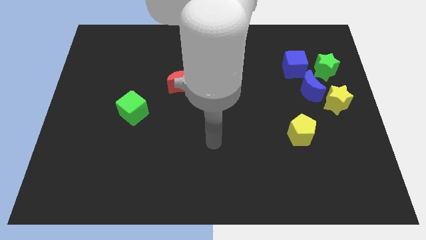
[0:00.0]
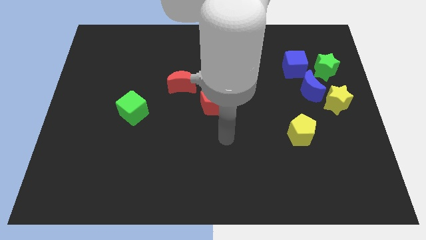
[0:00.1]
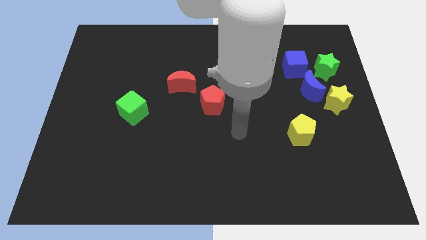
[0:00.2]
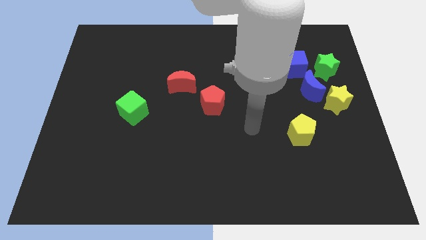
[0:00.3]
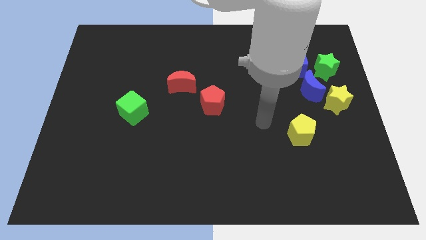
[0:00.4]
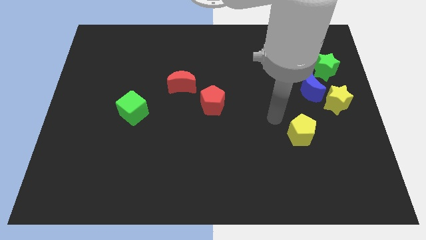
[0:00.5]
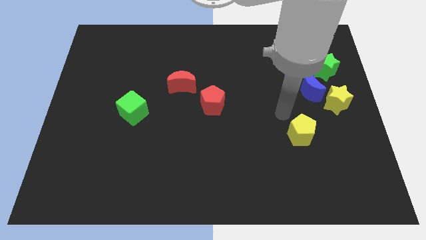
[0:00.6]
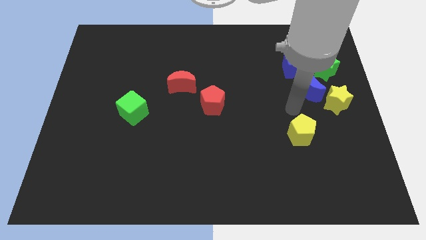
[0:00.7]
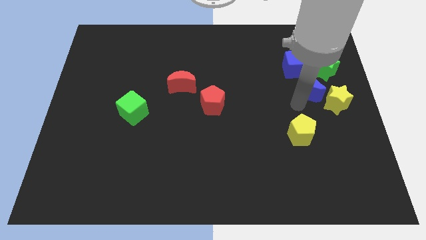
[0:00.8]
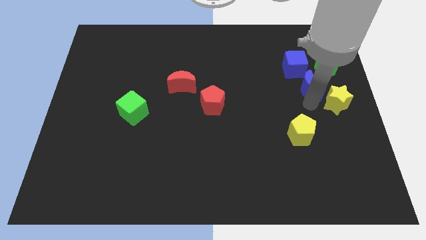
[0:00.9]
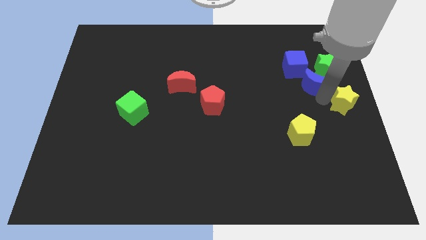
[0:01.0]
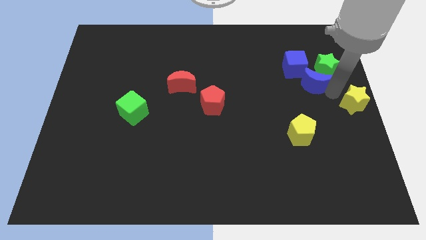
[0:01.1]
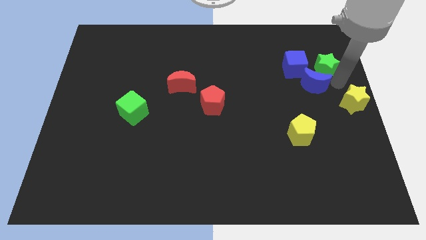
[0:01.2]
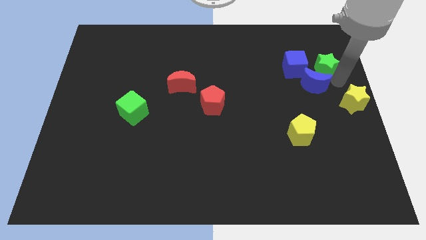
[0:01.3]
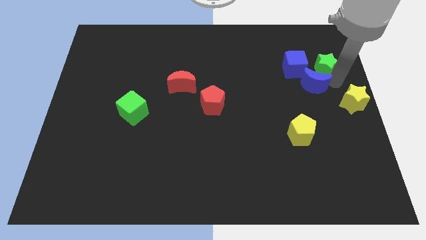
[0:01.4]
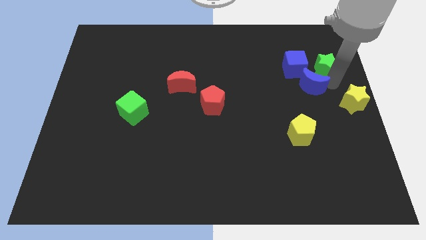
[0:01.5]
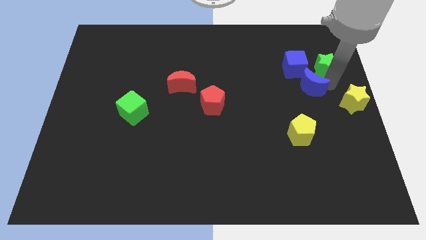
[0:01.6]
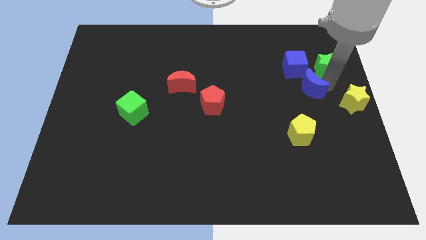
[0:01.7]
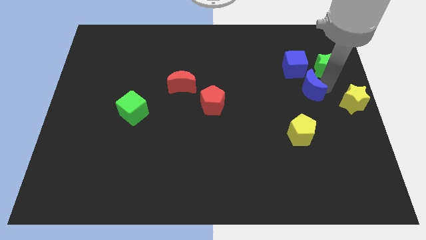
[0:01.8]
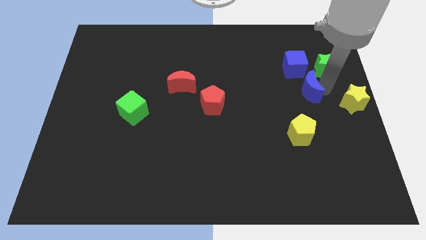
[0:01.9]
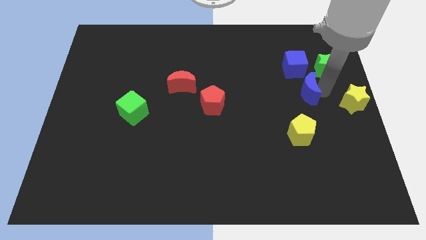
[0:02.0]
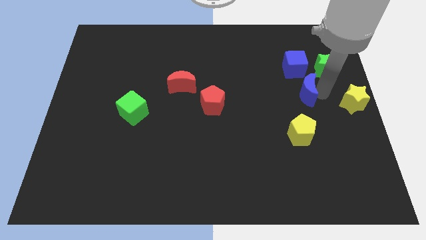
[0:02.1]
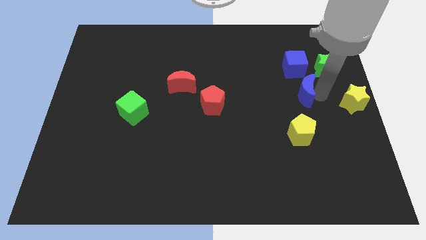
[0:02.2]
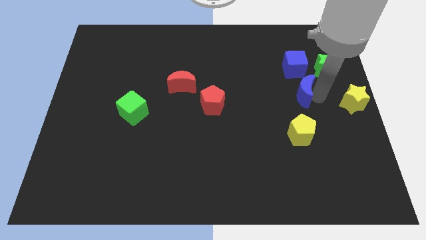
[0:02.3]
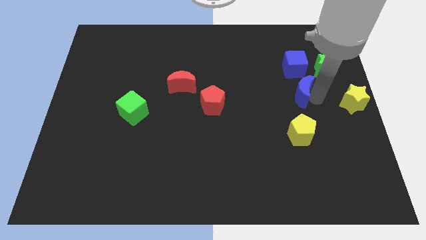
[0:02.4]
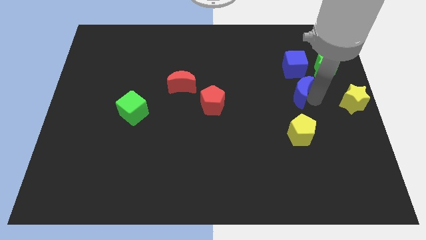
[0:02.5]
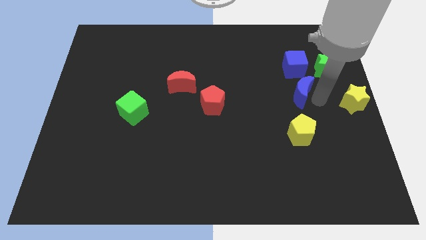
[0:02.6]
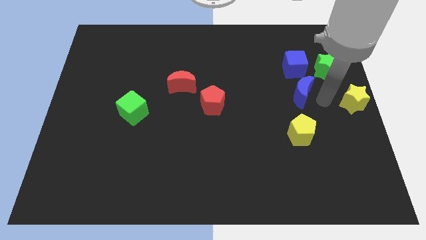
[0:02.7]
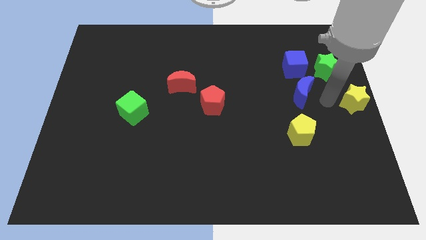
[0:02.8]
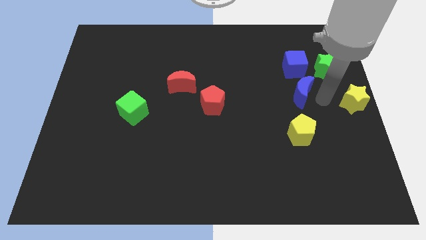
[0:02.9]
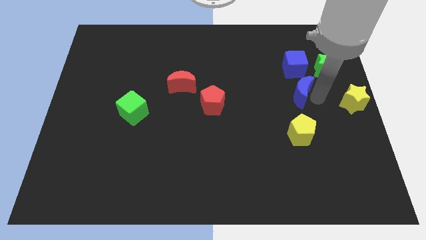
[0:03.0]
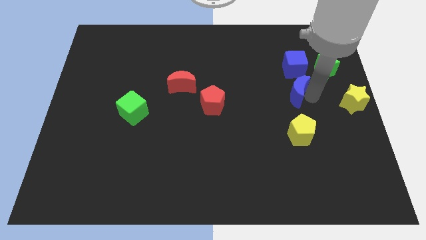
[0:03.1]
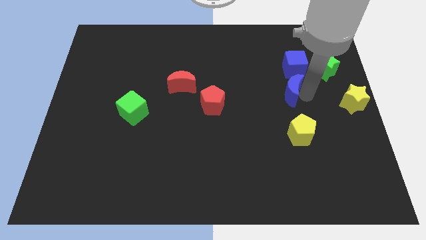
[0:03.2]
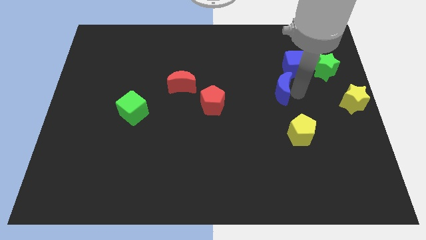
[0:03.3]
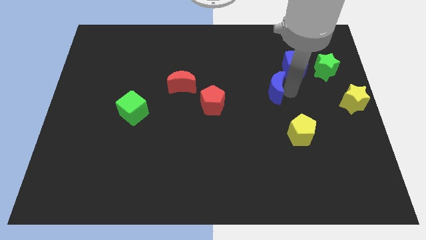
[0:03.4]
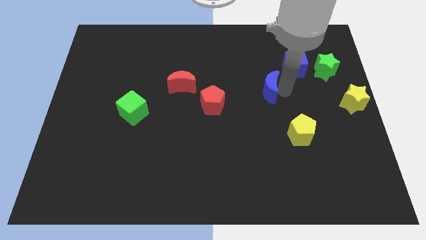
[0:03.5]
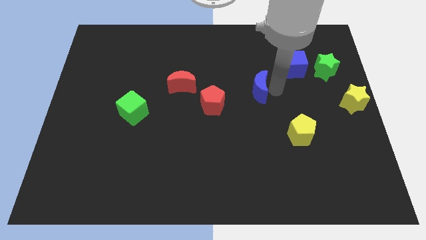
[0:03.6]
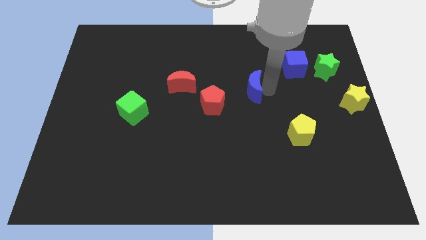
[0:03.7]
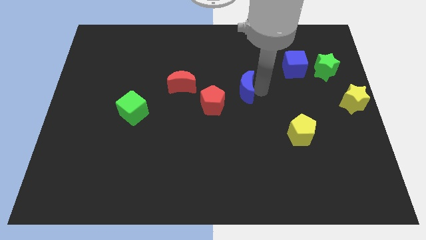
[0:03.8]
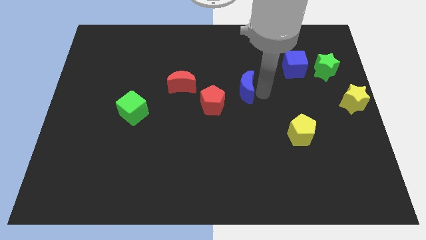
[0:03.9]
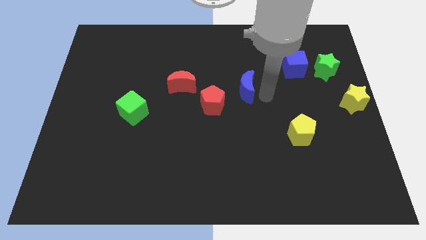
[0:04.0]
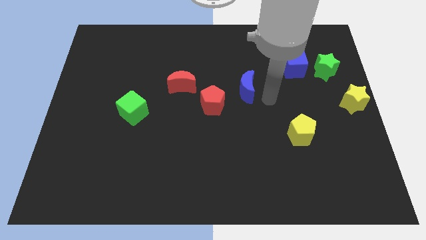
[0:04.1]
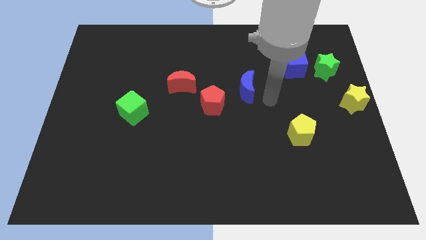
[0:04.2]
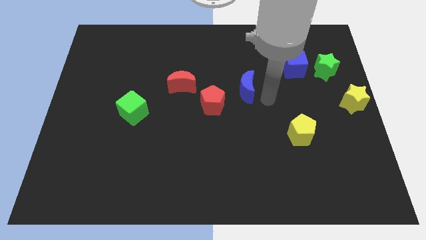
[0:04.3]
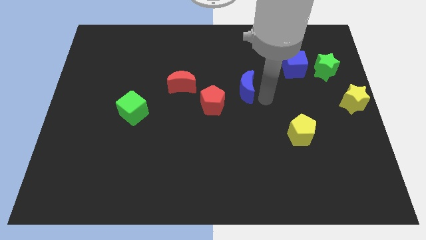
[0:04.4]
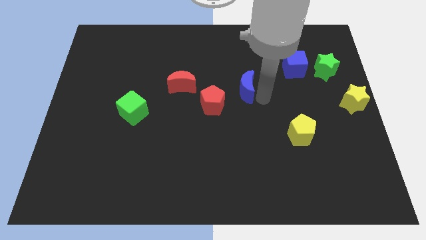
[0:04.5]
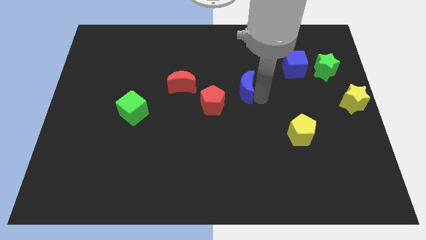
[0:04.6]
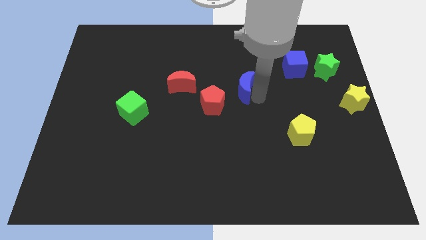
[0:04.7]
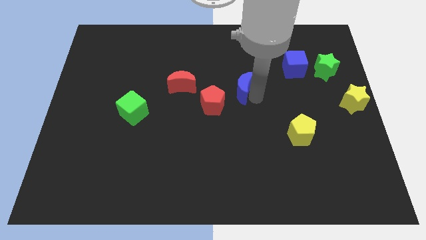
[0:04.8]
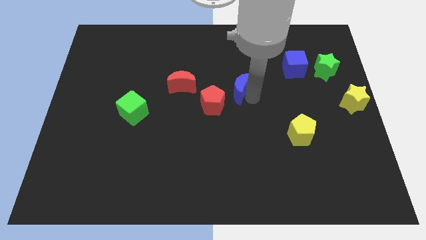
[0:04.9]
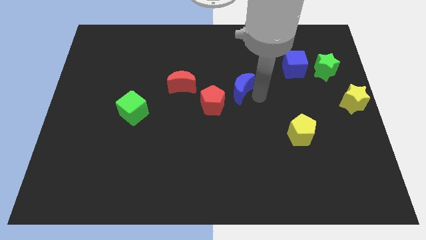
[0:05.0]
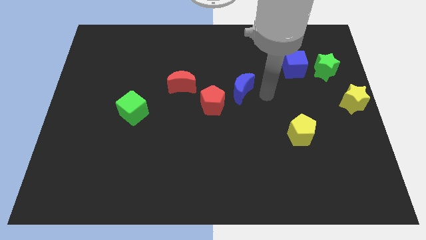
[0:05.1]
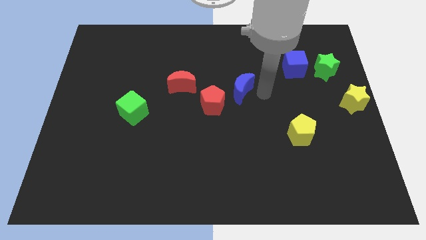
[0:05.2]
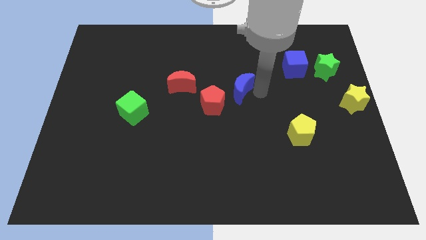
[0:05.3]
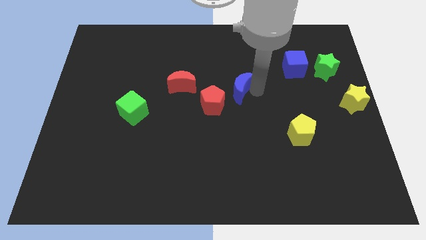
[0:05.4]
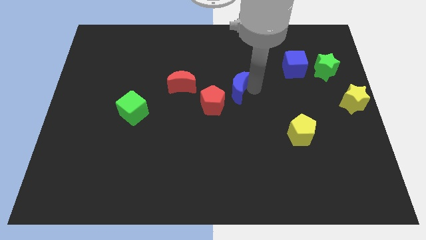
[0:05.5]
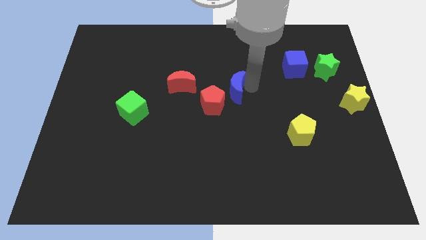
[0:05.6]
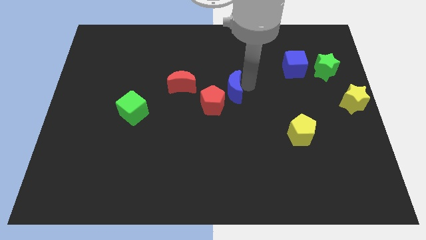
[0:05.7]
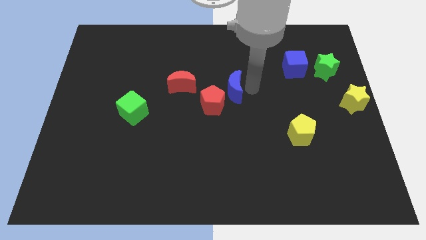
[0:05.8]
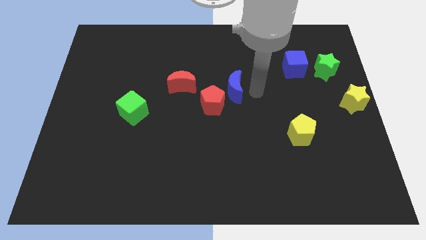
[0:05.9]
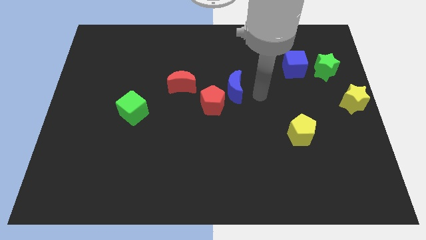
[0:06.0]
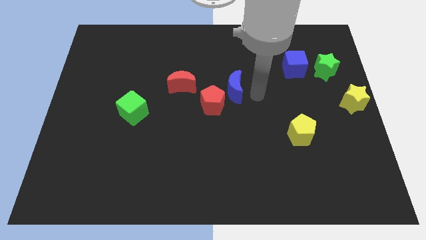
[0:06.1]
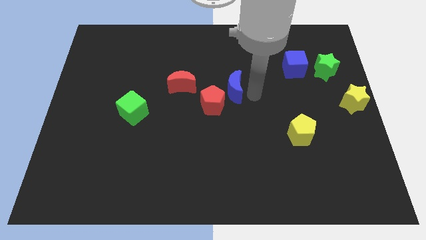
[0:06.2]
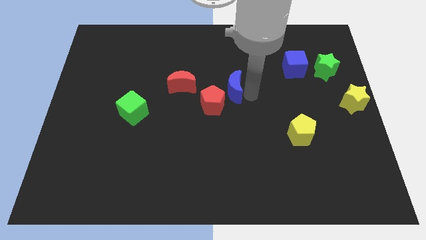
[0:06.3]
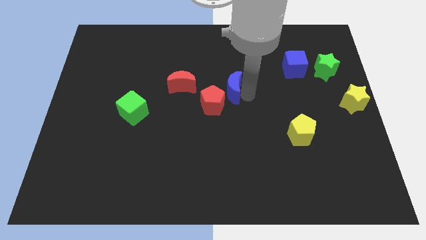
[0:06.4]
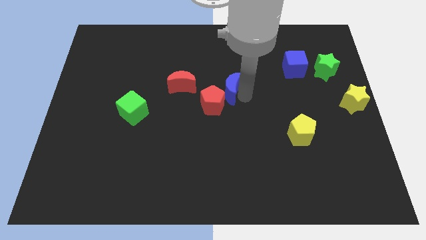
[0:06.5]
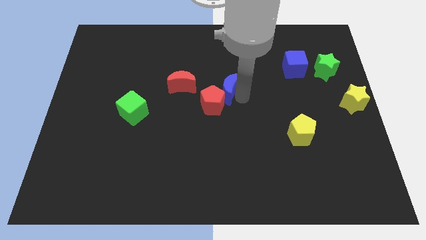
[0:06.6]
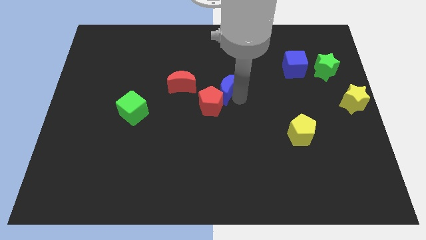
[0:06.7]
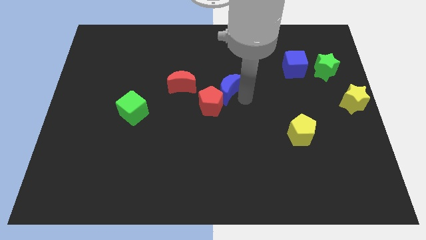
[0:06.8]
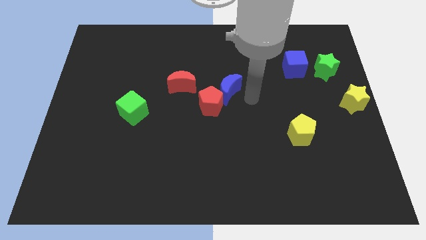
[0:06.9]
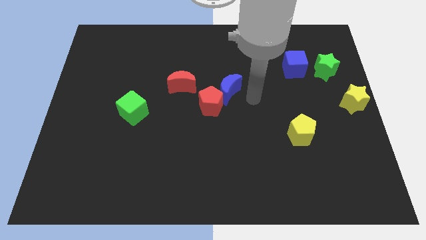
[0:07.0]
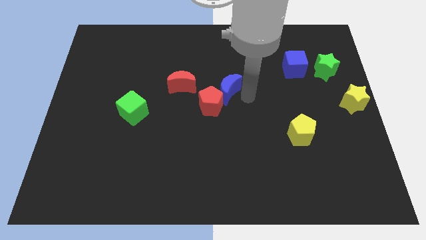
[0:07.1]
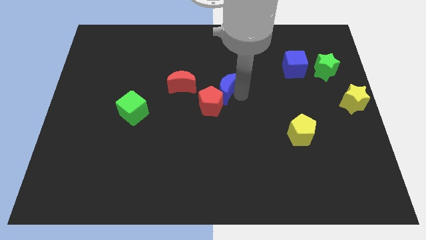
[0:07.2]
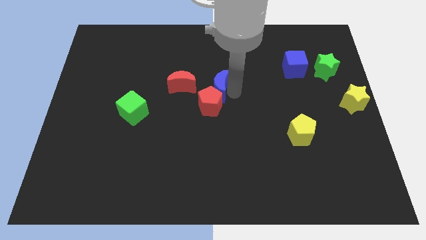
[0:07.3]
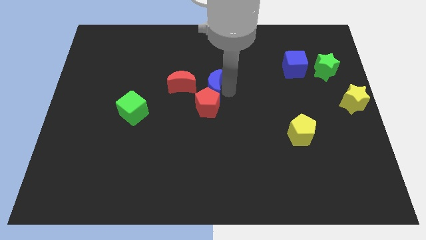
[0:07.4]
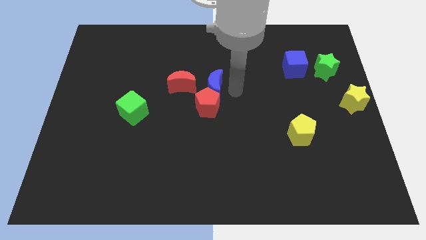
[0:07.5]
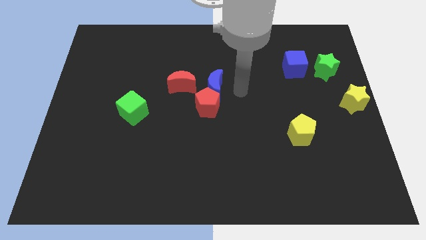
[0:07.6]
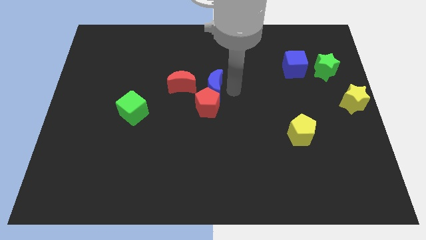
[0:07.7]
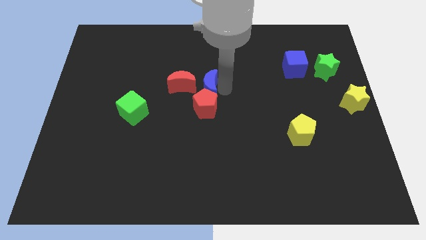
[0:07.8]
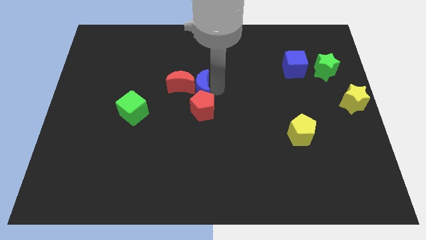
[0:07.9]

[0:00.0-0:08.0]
put the blue moon to the red moon
